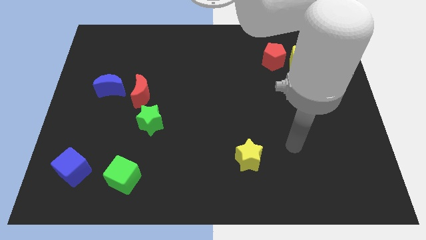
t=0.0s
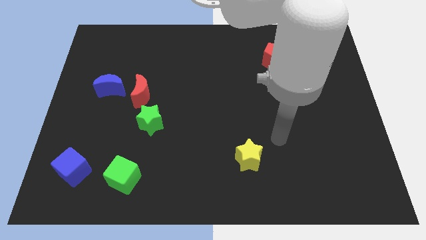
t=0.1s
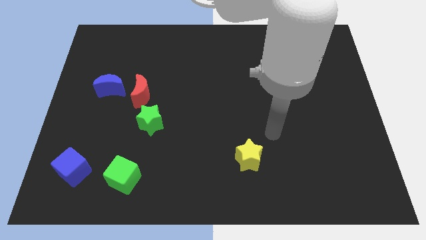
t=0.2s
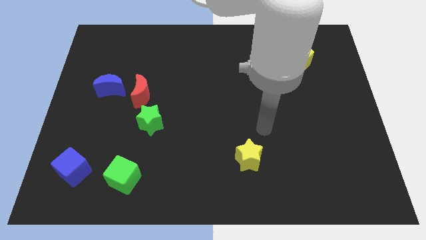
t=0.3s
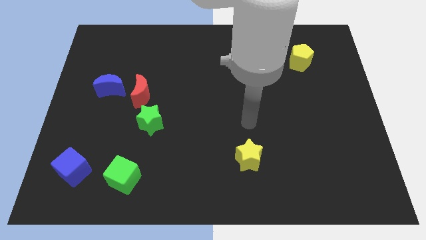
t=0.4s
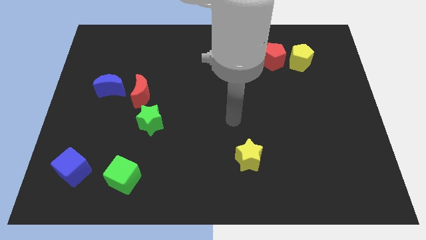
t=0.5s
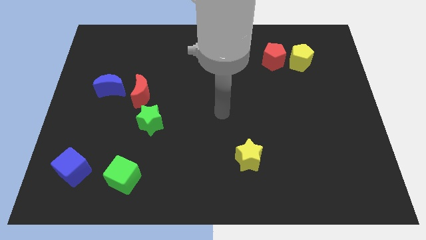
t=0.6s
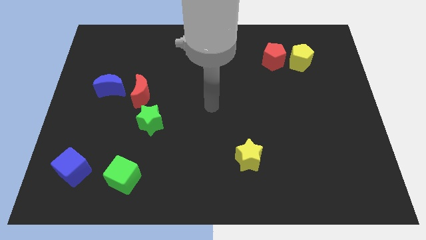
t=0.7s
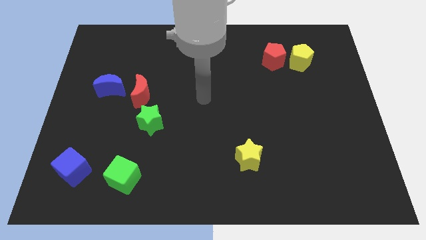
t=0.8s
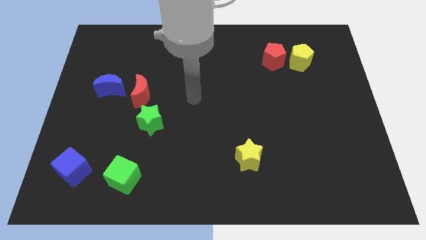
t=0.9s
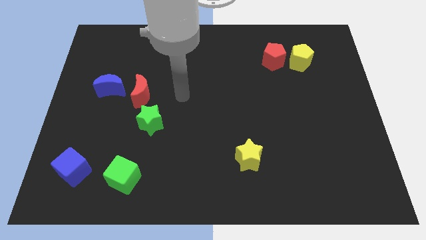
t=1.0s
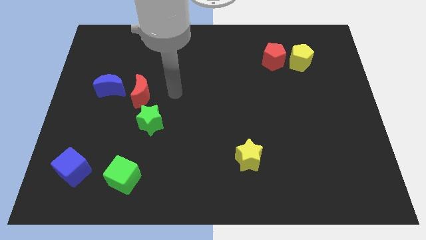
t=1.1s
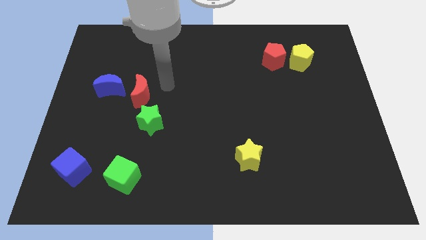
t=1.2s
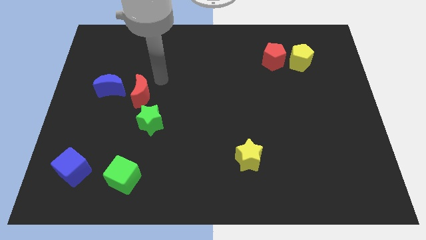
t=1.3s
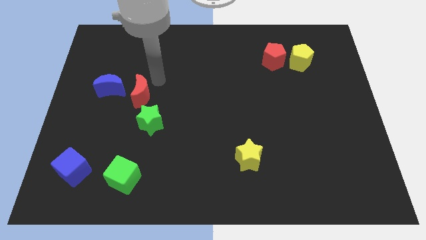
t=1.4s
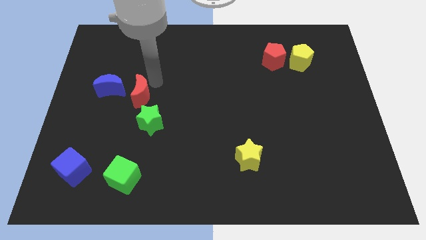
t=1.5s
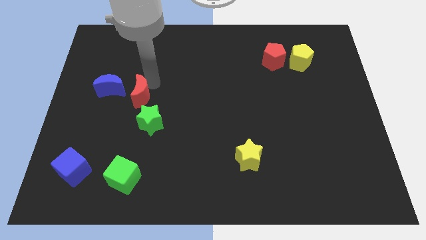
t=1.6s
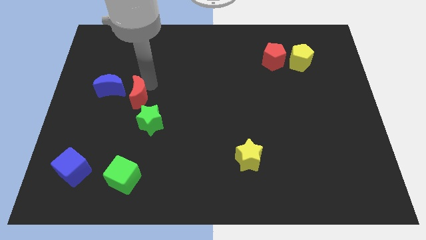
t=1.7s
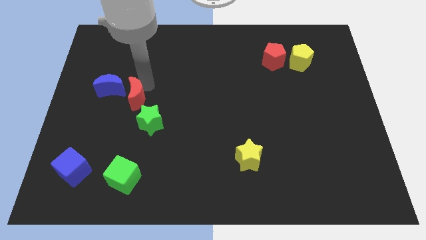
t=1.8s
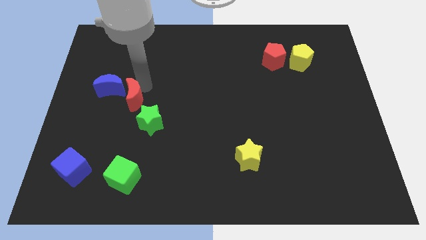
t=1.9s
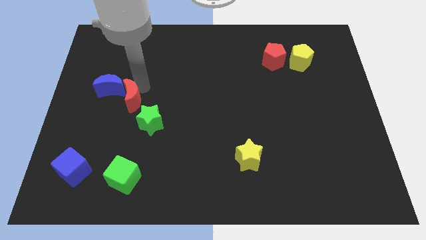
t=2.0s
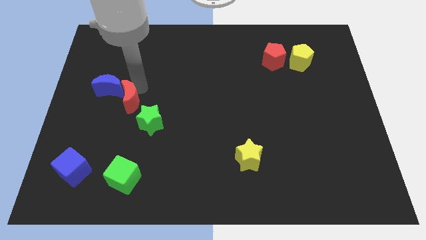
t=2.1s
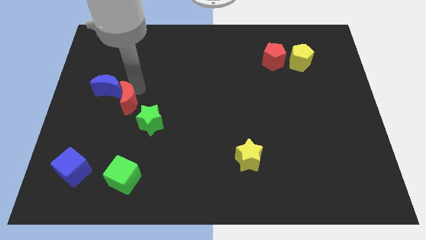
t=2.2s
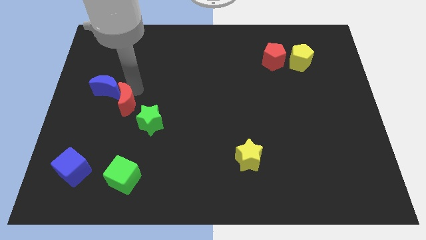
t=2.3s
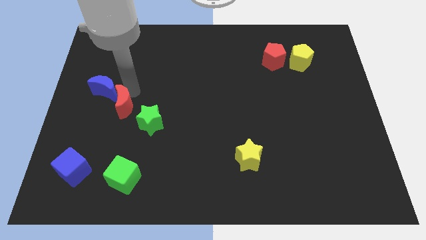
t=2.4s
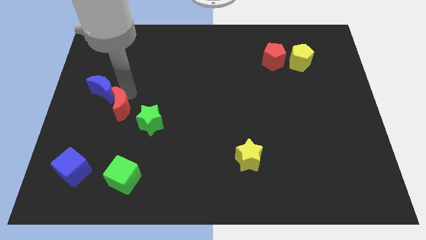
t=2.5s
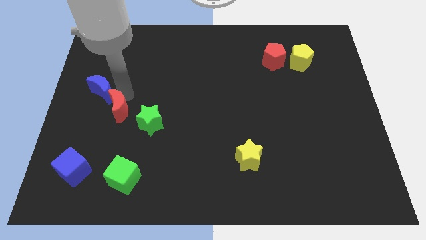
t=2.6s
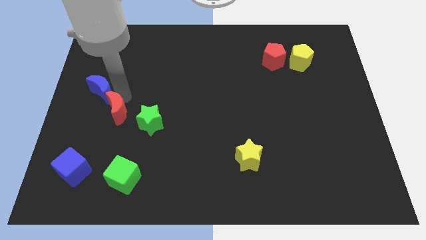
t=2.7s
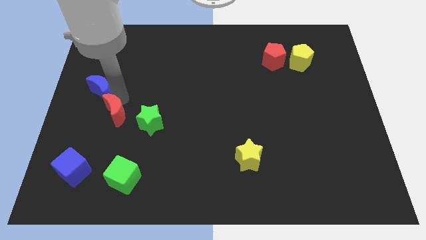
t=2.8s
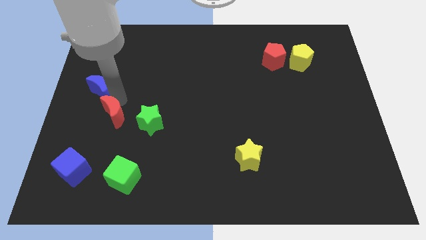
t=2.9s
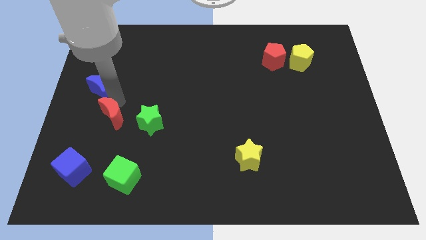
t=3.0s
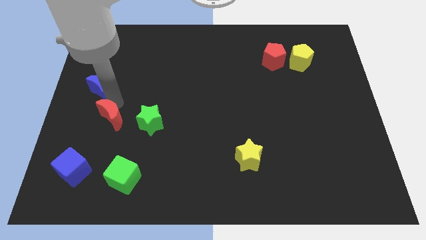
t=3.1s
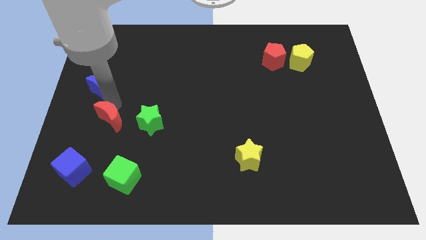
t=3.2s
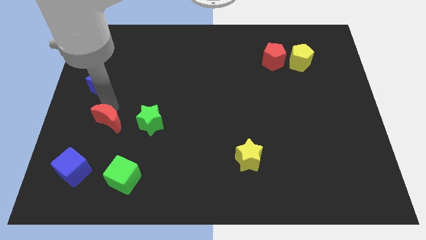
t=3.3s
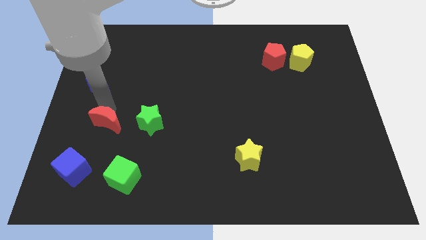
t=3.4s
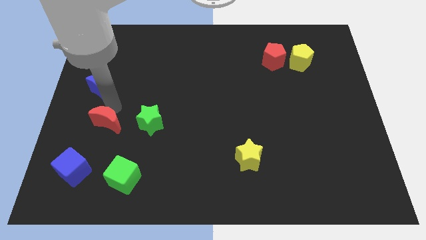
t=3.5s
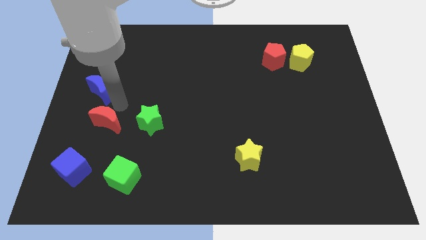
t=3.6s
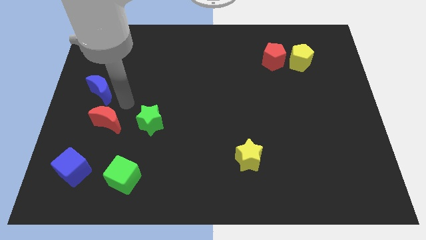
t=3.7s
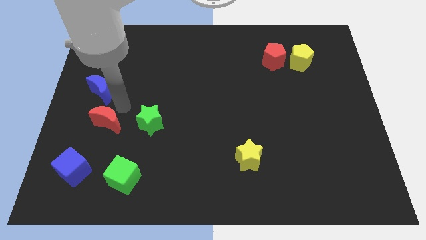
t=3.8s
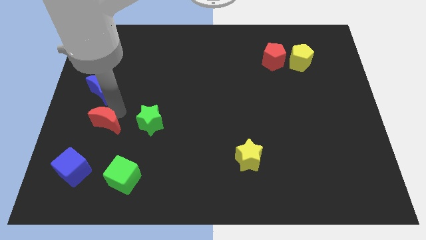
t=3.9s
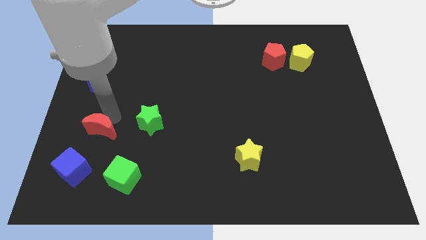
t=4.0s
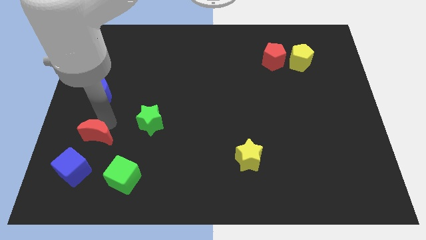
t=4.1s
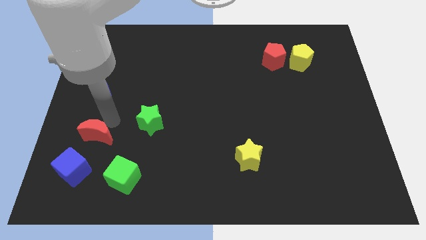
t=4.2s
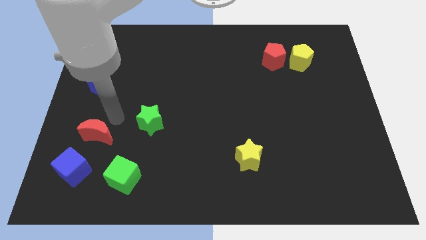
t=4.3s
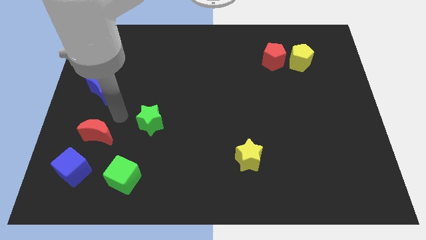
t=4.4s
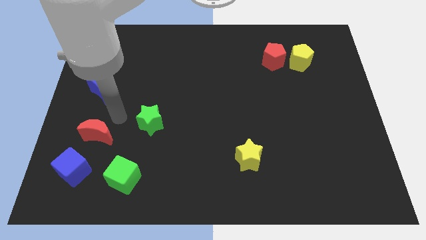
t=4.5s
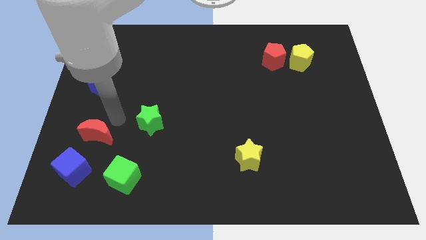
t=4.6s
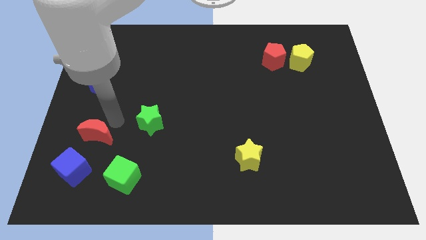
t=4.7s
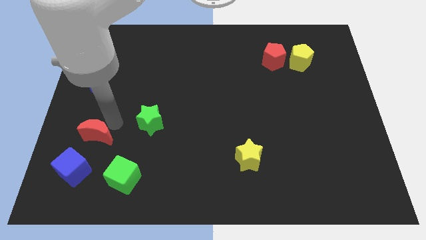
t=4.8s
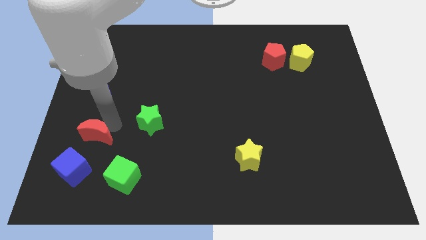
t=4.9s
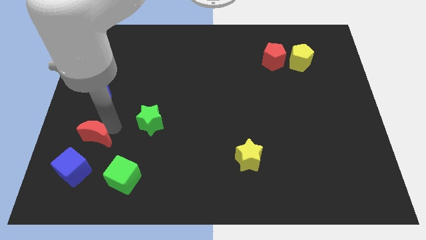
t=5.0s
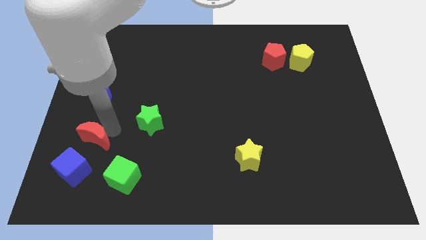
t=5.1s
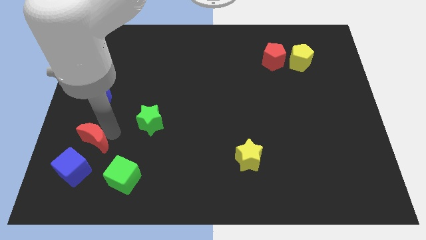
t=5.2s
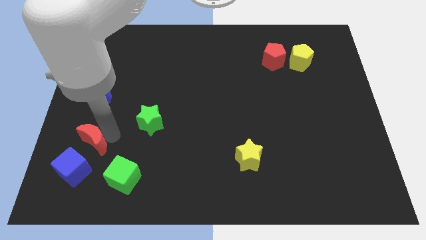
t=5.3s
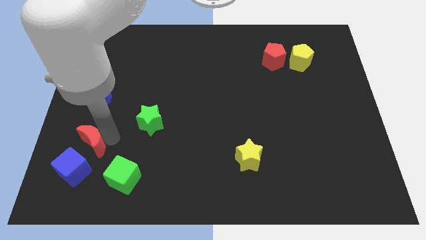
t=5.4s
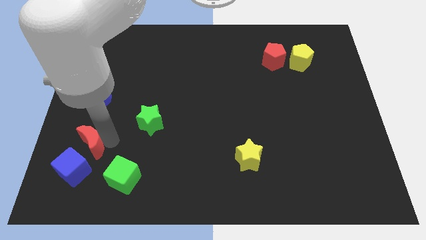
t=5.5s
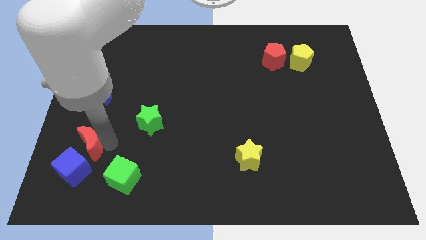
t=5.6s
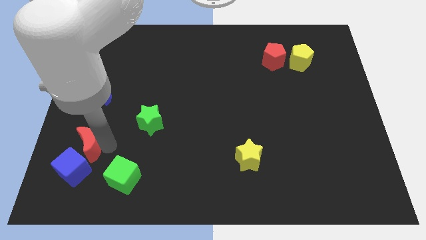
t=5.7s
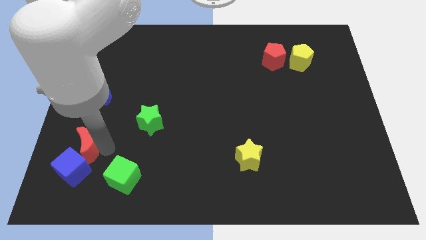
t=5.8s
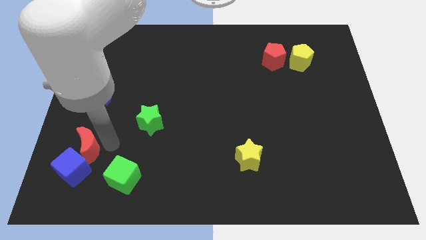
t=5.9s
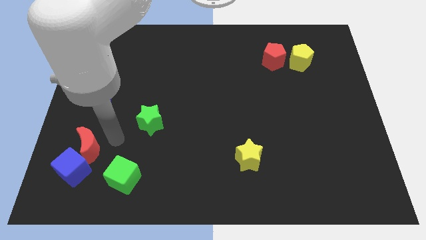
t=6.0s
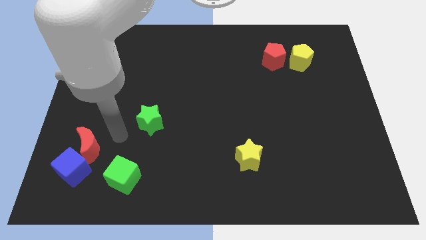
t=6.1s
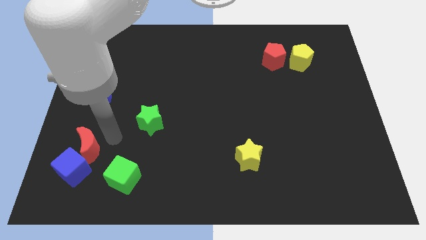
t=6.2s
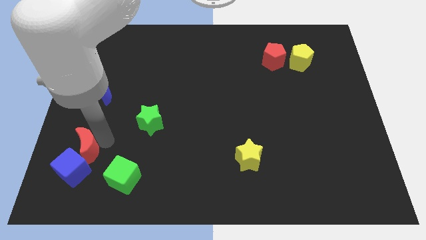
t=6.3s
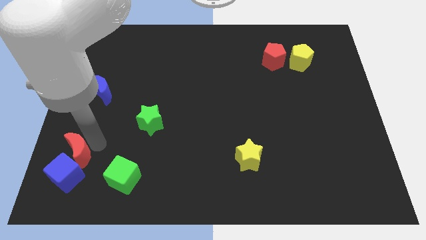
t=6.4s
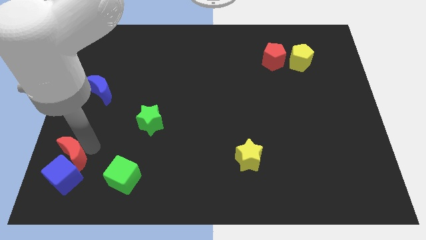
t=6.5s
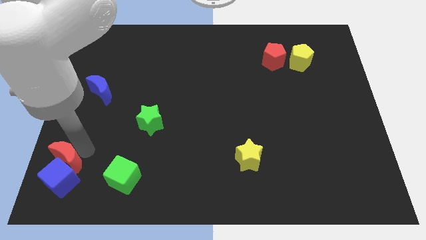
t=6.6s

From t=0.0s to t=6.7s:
slide the red moon just left of the green cube
